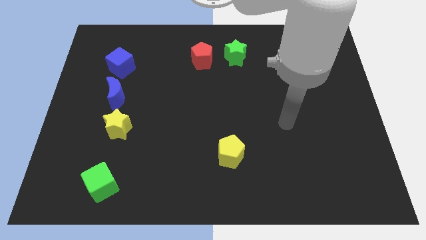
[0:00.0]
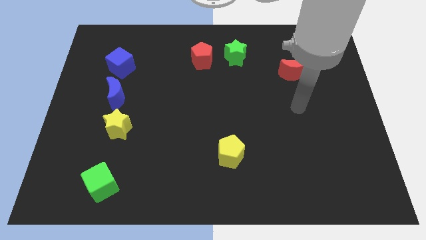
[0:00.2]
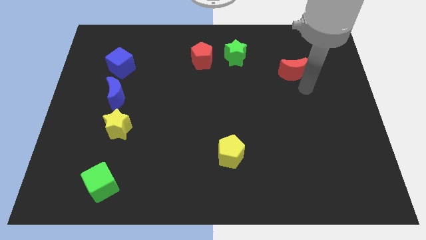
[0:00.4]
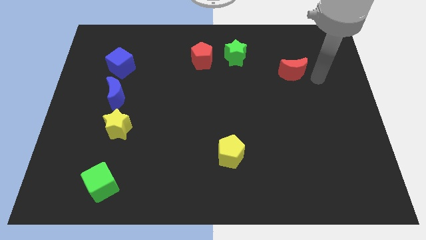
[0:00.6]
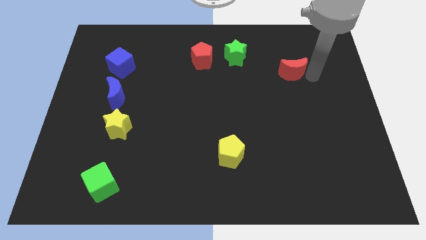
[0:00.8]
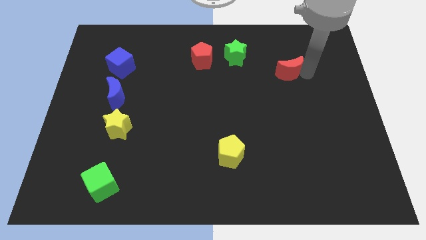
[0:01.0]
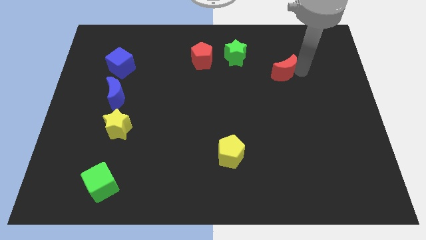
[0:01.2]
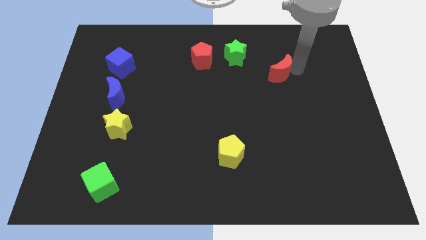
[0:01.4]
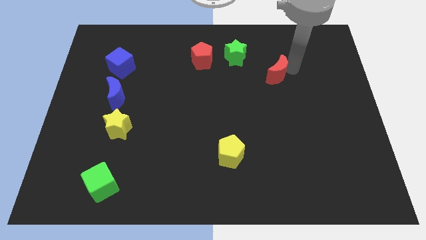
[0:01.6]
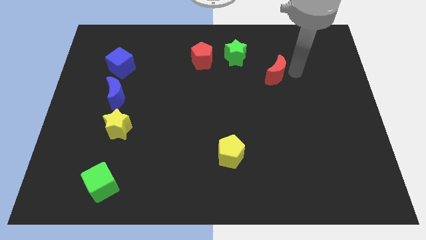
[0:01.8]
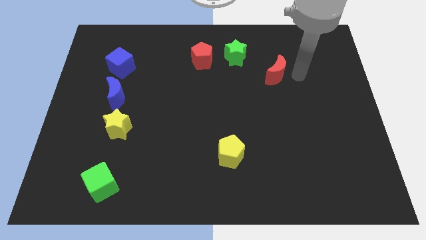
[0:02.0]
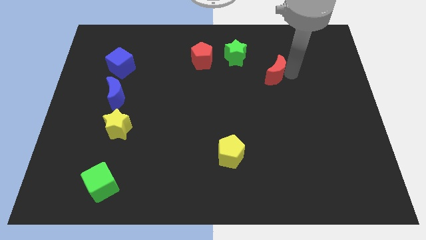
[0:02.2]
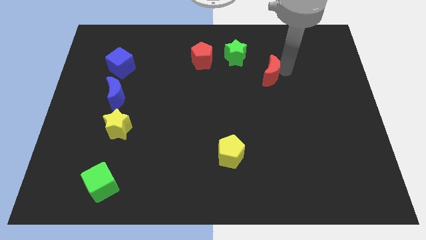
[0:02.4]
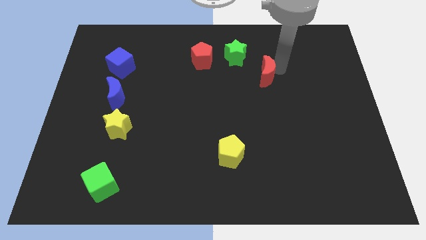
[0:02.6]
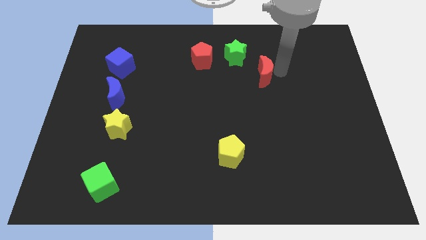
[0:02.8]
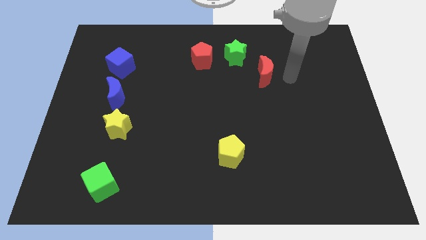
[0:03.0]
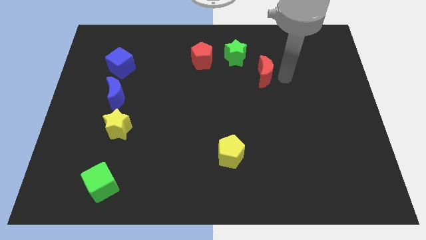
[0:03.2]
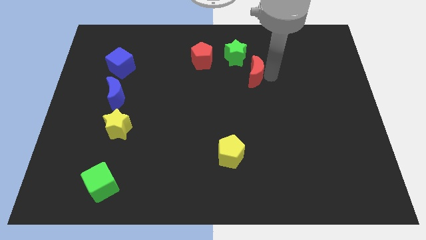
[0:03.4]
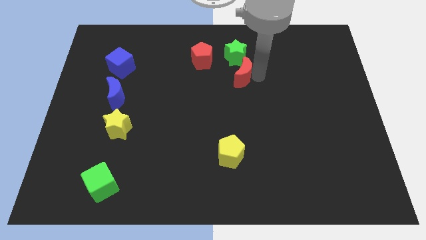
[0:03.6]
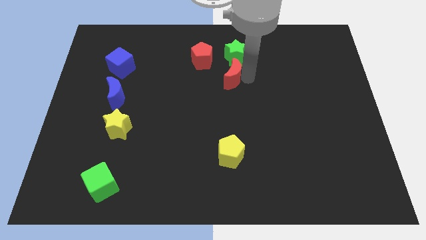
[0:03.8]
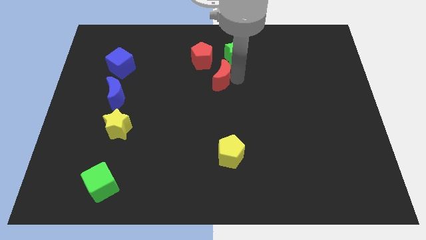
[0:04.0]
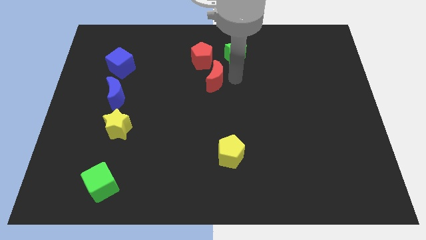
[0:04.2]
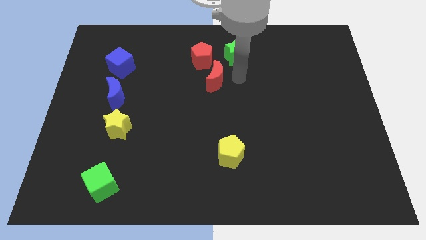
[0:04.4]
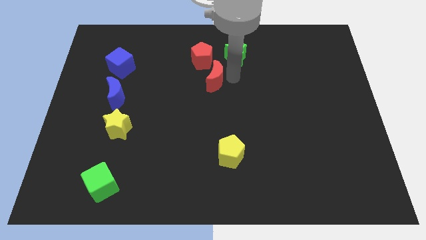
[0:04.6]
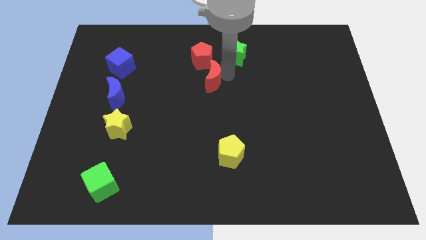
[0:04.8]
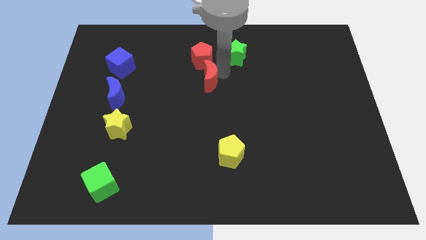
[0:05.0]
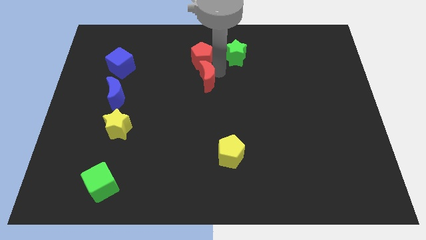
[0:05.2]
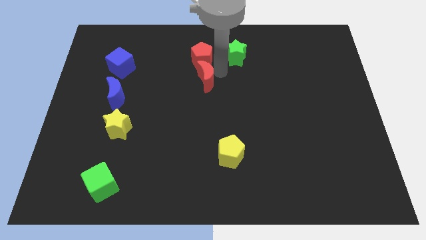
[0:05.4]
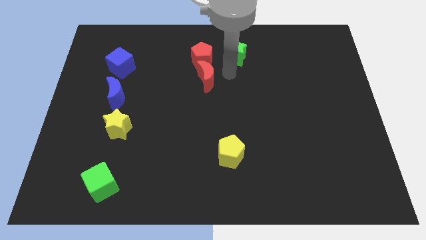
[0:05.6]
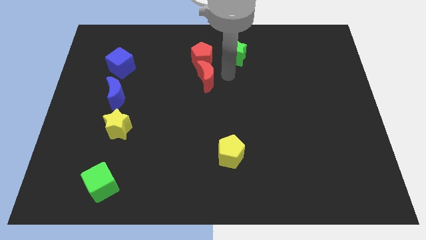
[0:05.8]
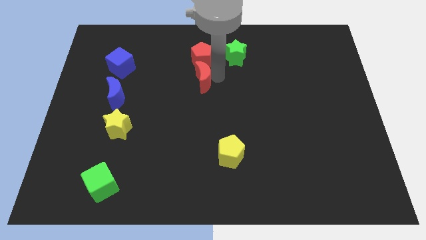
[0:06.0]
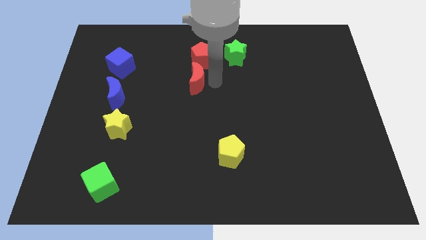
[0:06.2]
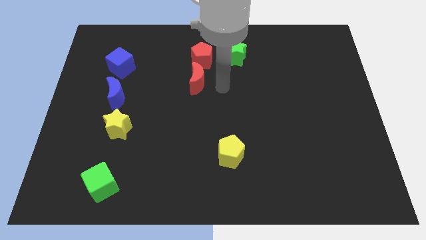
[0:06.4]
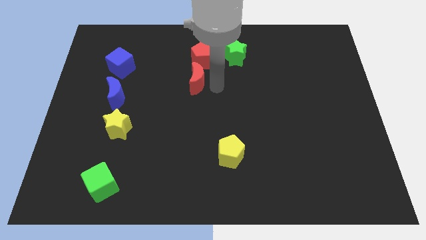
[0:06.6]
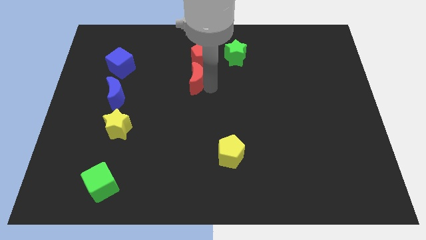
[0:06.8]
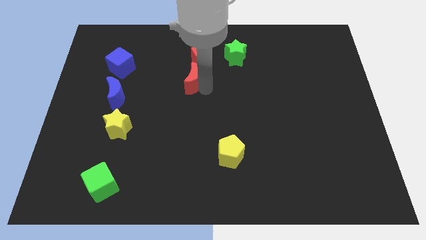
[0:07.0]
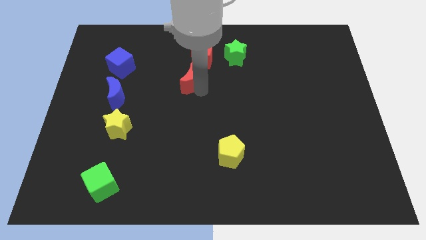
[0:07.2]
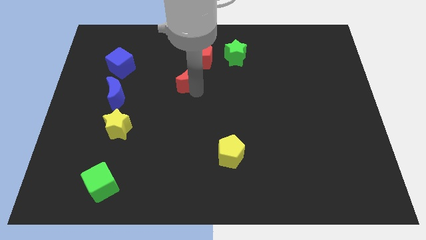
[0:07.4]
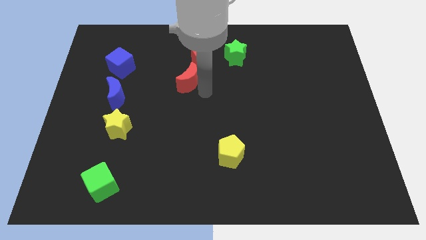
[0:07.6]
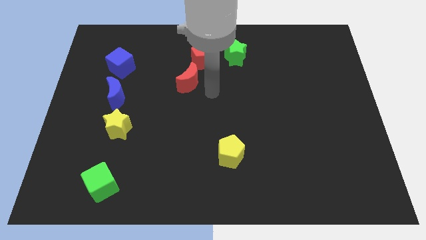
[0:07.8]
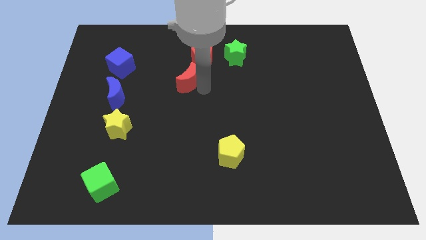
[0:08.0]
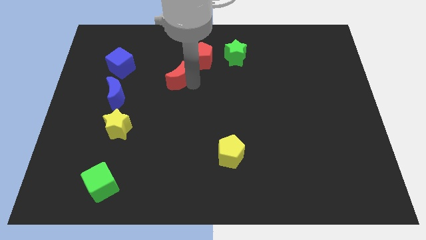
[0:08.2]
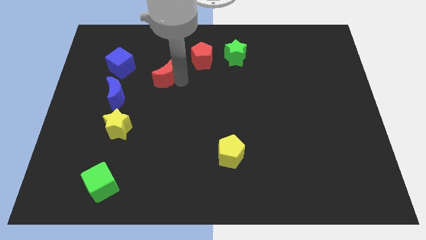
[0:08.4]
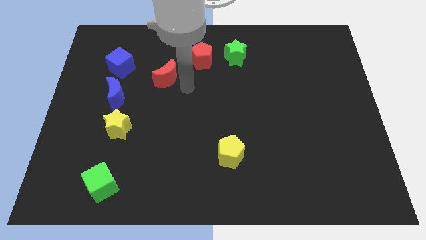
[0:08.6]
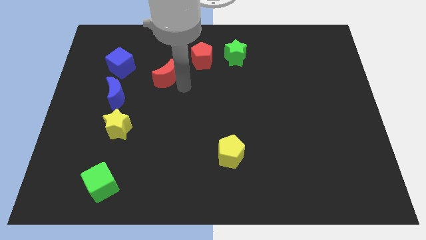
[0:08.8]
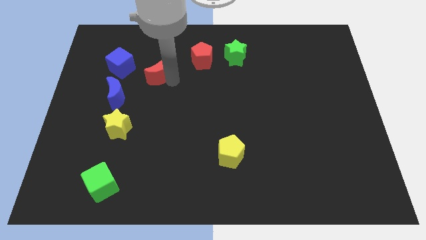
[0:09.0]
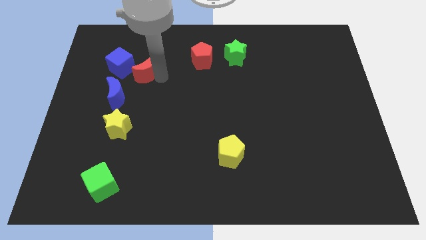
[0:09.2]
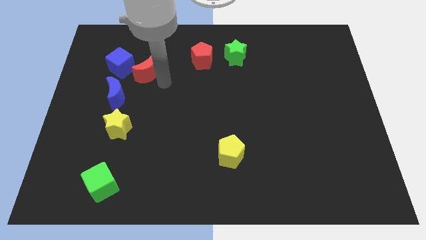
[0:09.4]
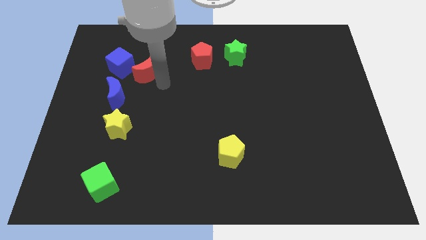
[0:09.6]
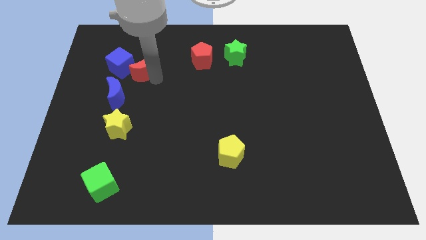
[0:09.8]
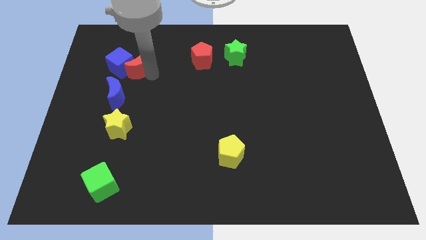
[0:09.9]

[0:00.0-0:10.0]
slide the red moon towards the blue cube

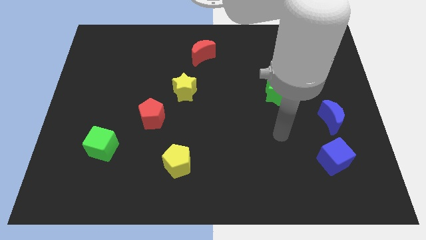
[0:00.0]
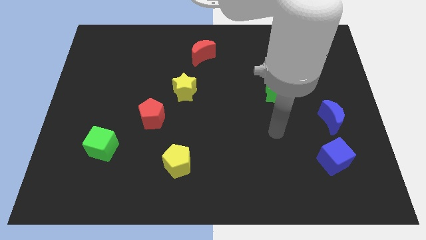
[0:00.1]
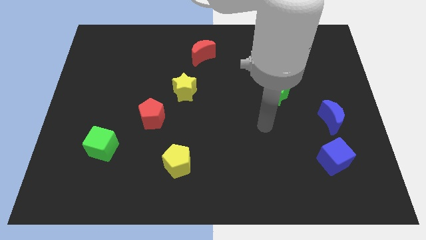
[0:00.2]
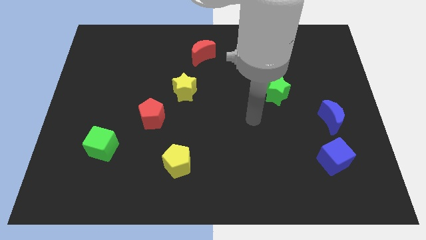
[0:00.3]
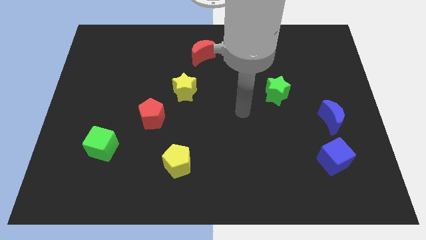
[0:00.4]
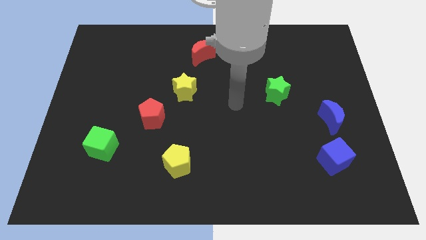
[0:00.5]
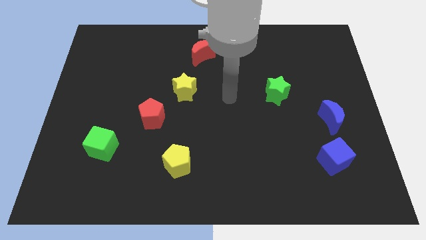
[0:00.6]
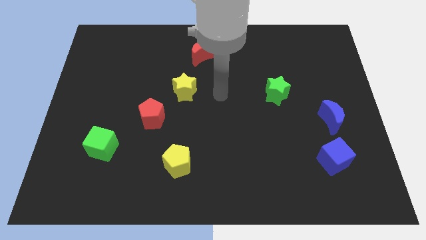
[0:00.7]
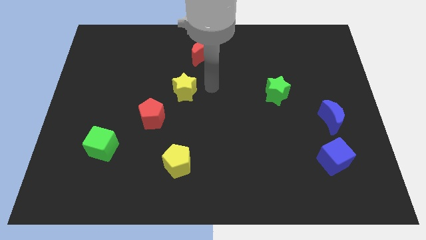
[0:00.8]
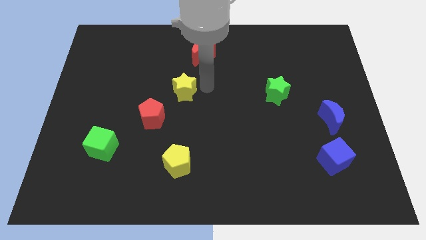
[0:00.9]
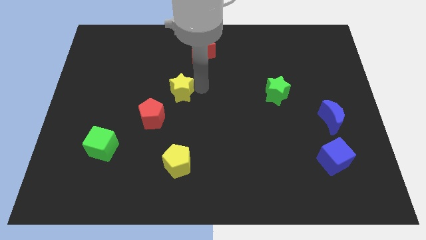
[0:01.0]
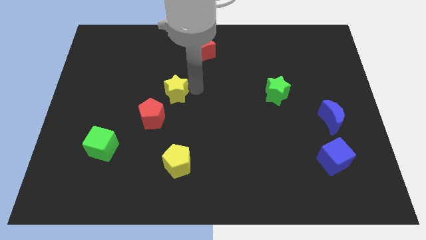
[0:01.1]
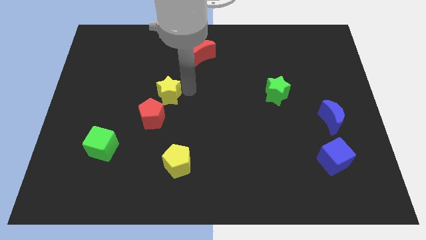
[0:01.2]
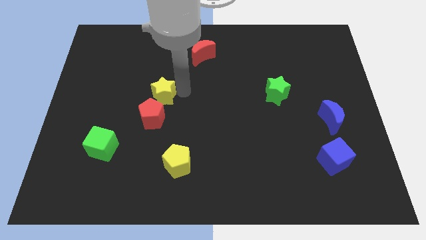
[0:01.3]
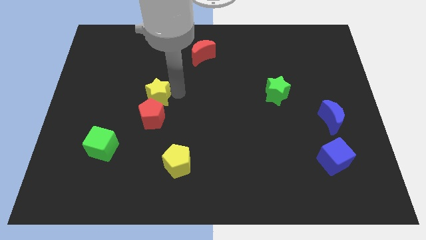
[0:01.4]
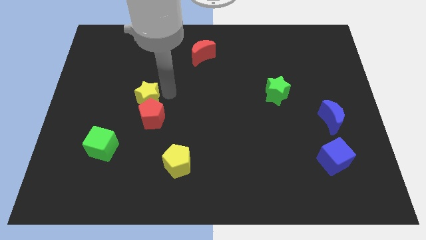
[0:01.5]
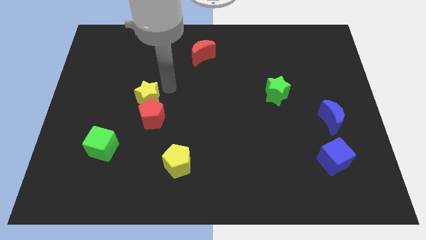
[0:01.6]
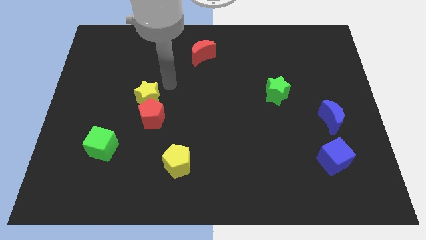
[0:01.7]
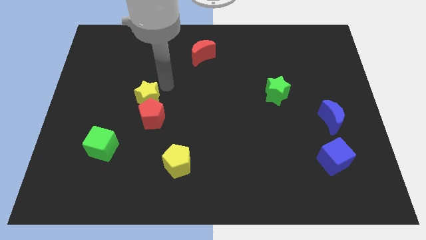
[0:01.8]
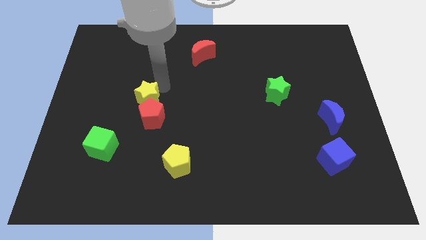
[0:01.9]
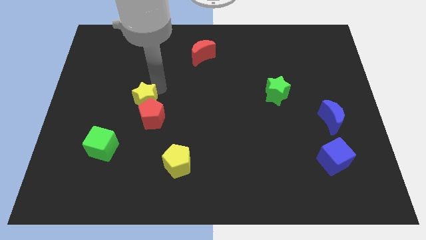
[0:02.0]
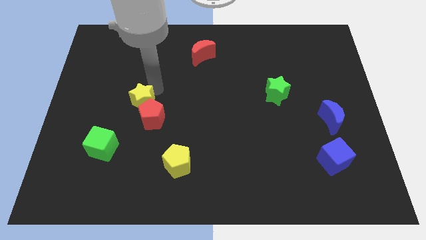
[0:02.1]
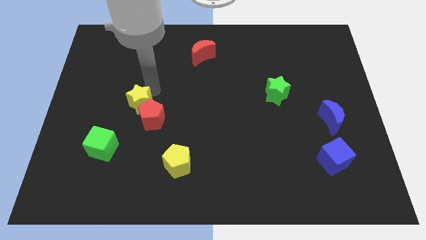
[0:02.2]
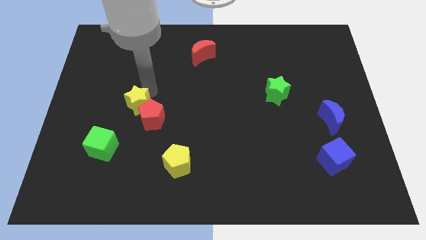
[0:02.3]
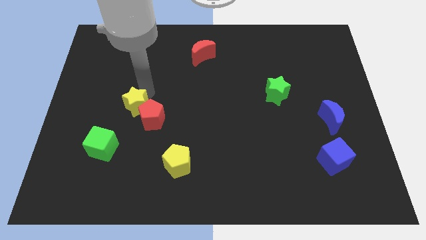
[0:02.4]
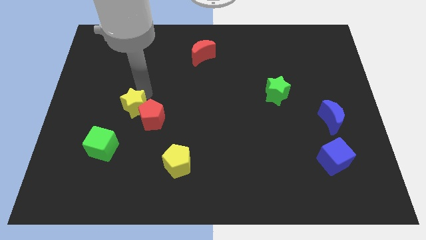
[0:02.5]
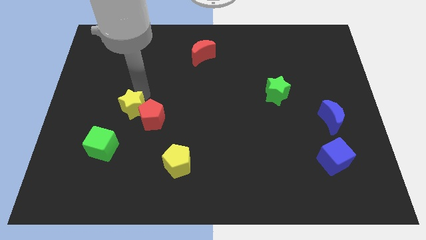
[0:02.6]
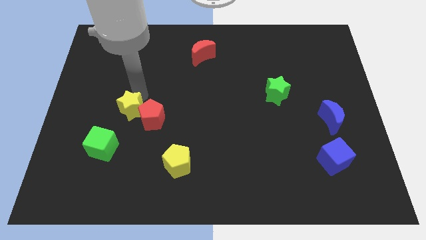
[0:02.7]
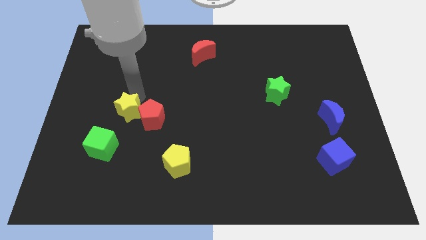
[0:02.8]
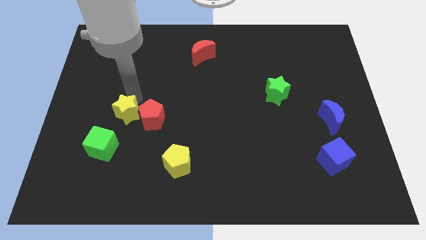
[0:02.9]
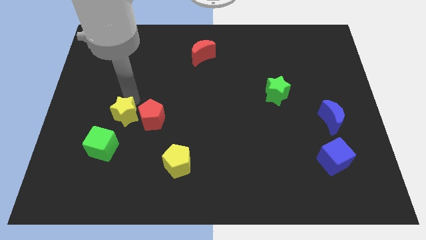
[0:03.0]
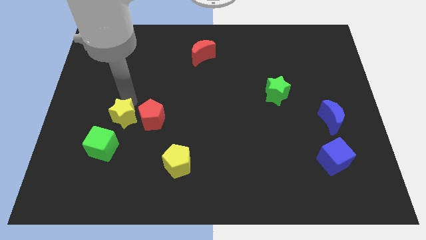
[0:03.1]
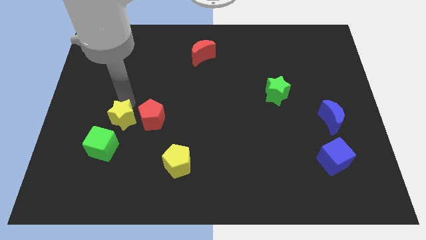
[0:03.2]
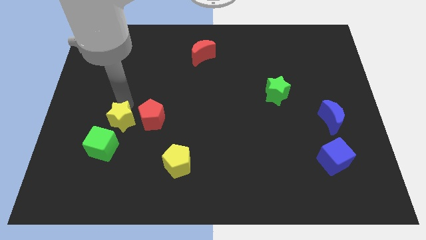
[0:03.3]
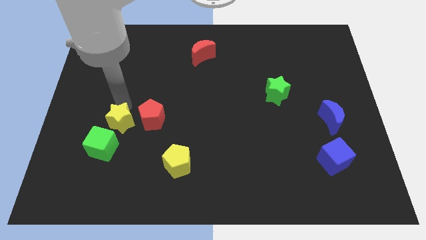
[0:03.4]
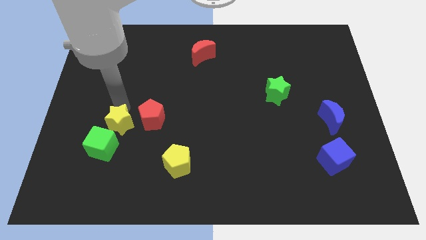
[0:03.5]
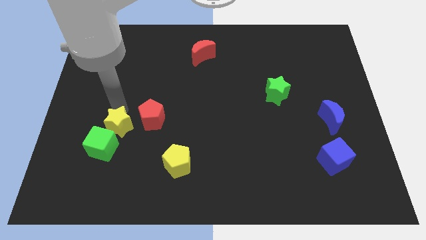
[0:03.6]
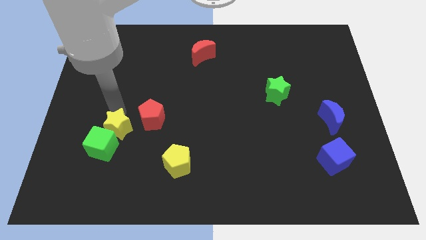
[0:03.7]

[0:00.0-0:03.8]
push the yellow star close to the green cube
